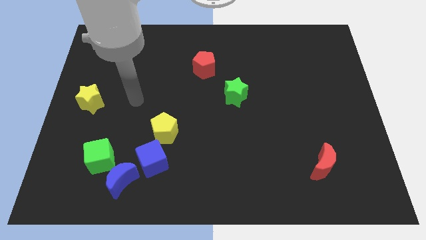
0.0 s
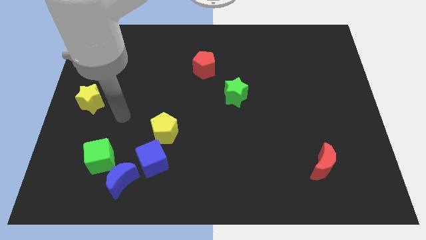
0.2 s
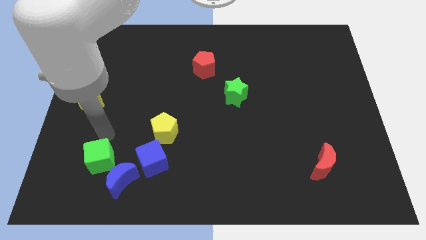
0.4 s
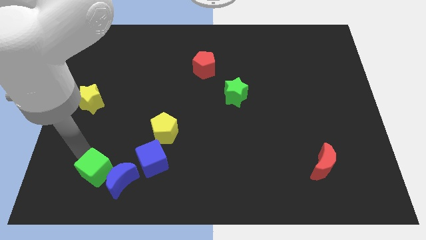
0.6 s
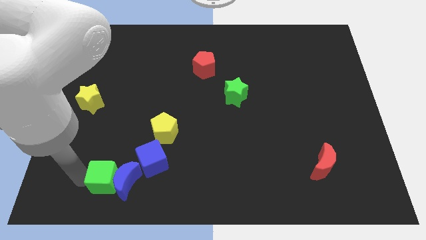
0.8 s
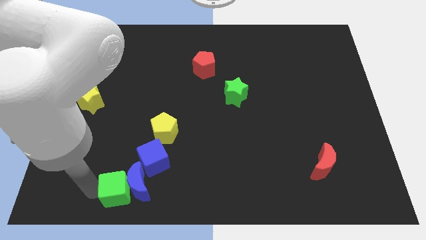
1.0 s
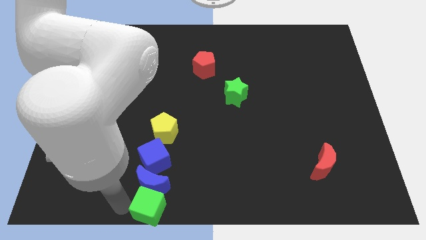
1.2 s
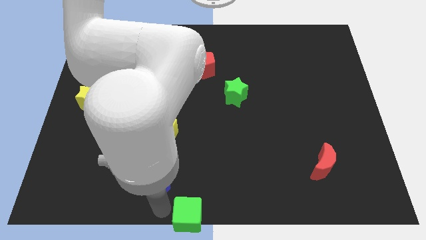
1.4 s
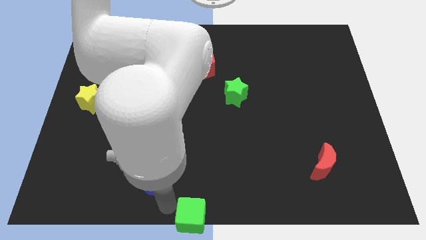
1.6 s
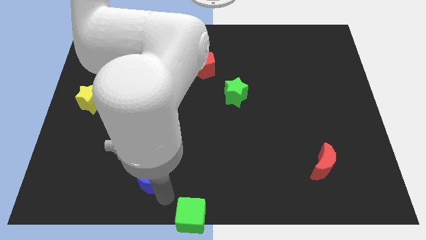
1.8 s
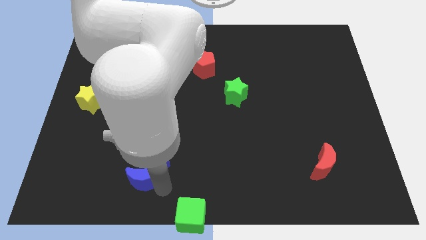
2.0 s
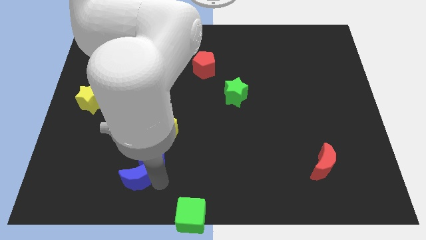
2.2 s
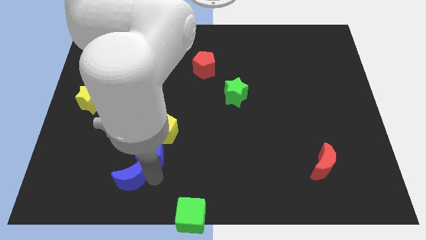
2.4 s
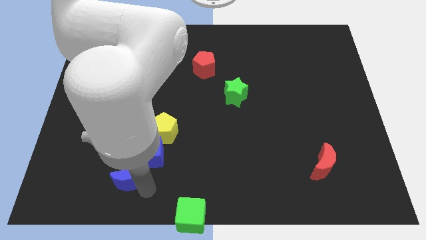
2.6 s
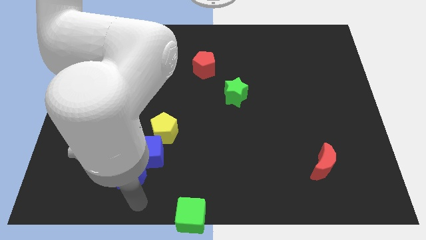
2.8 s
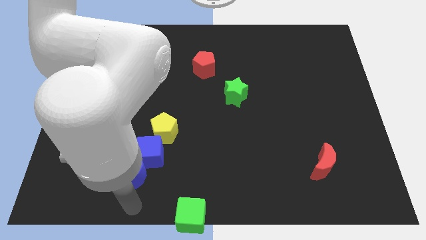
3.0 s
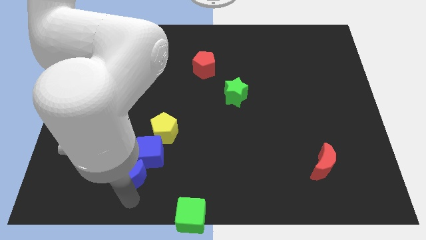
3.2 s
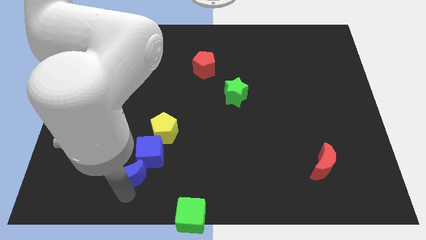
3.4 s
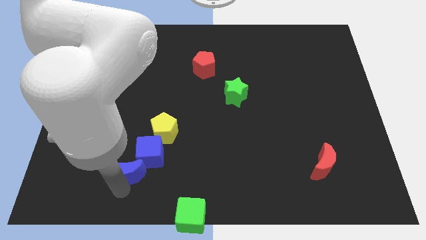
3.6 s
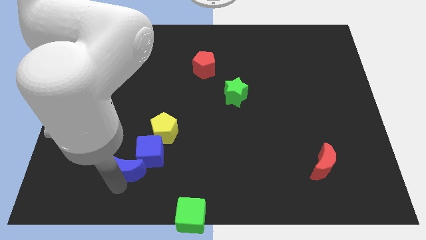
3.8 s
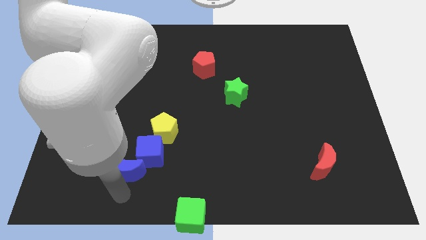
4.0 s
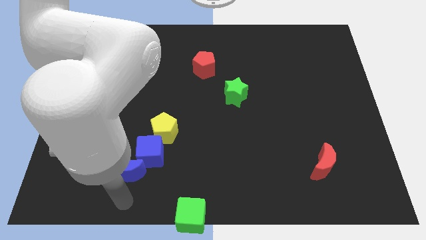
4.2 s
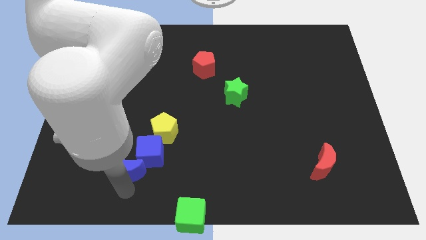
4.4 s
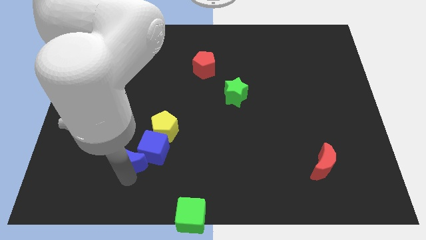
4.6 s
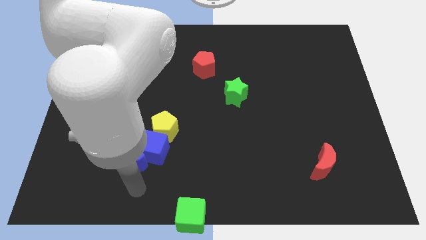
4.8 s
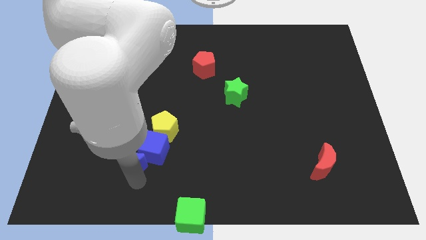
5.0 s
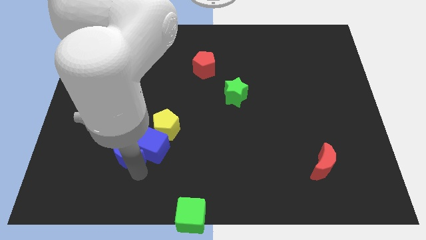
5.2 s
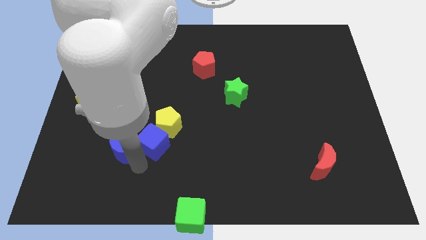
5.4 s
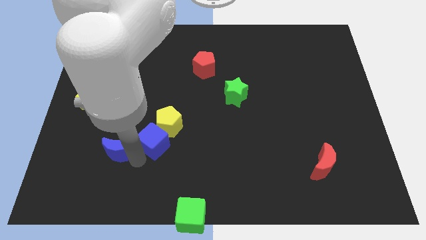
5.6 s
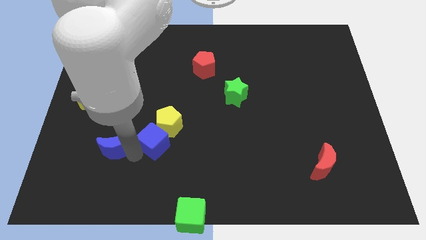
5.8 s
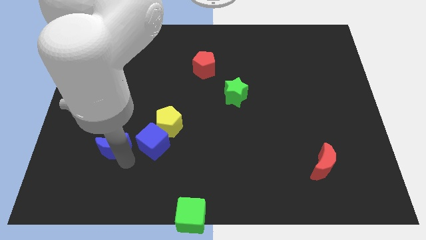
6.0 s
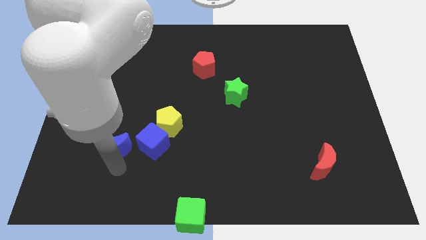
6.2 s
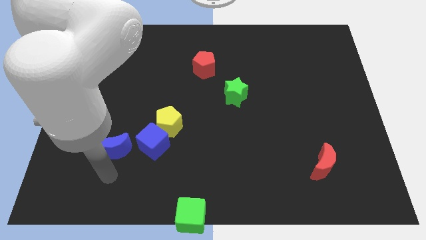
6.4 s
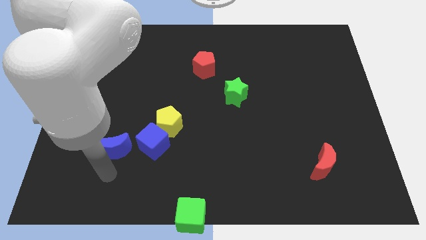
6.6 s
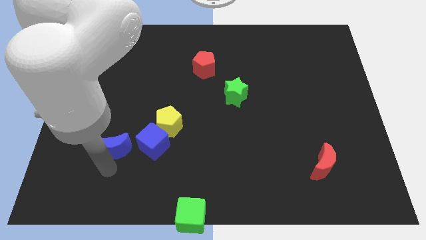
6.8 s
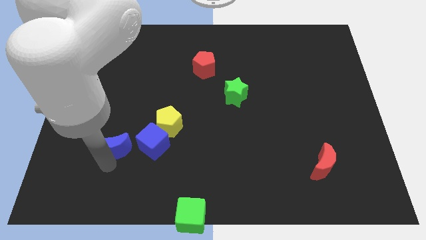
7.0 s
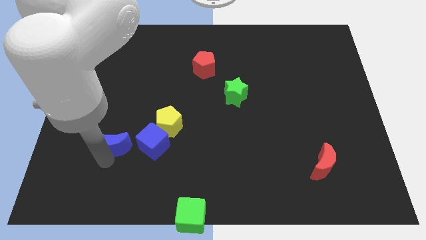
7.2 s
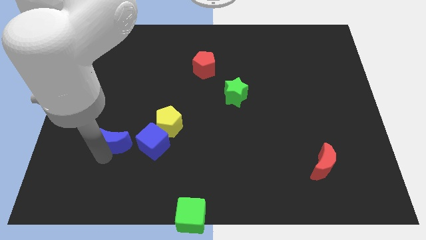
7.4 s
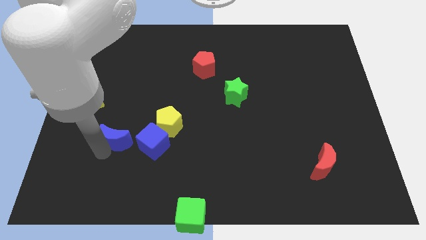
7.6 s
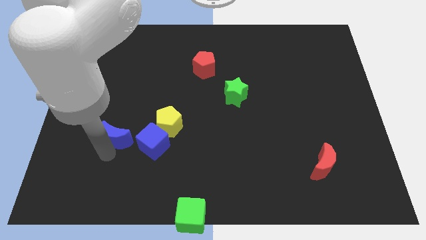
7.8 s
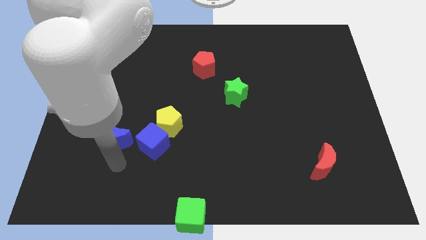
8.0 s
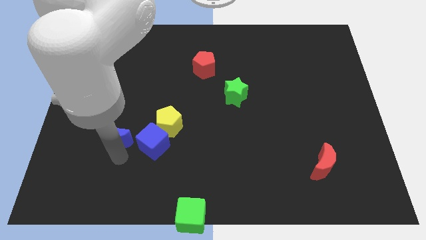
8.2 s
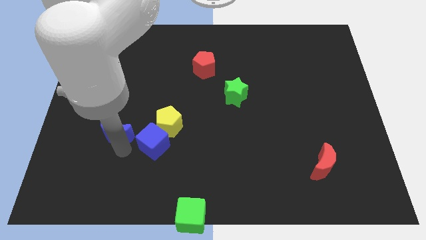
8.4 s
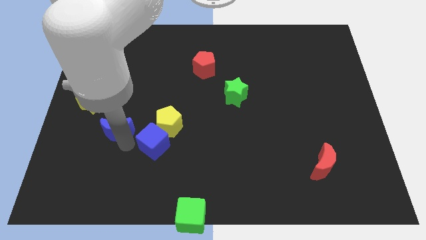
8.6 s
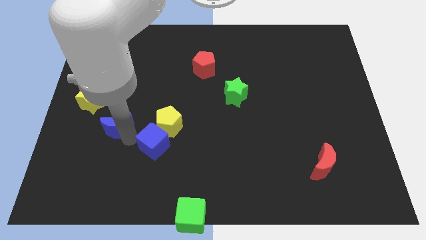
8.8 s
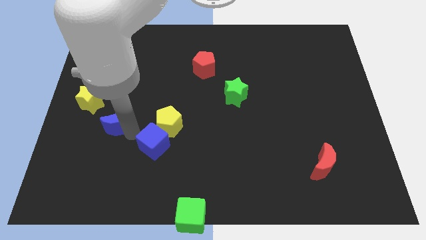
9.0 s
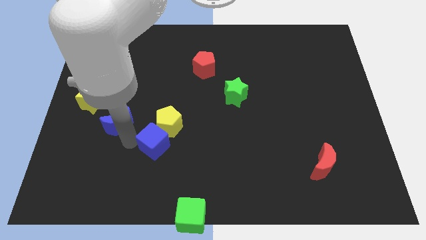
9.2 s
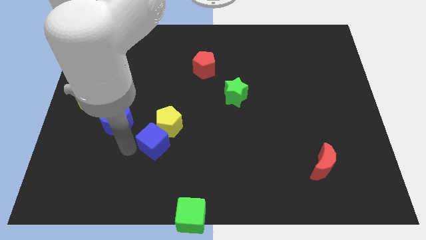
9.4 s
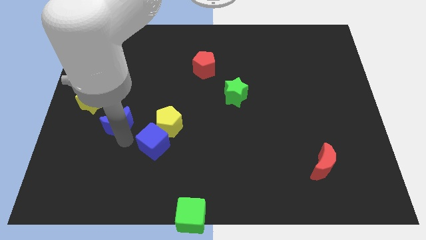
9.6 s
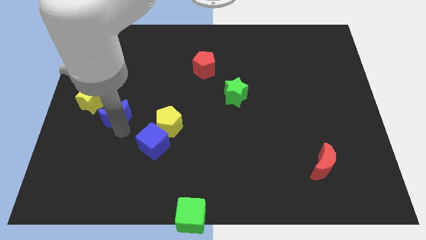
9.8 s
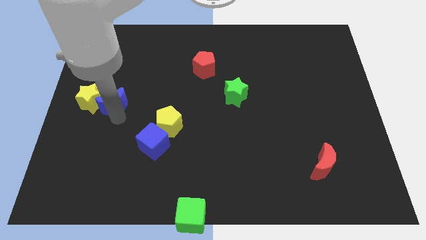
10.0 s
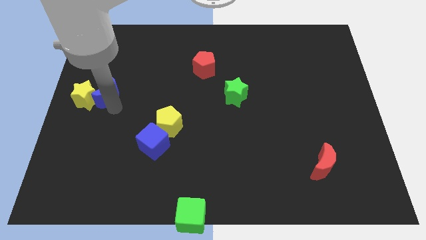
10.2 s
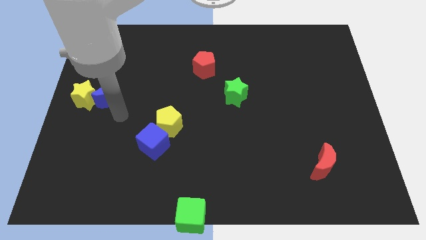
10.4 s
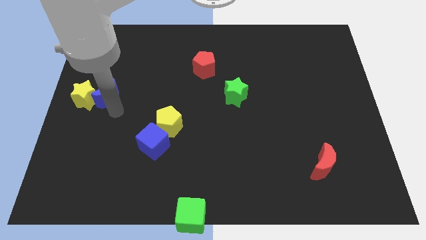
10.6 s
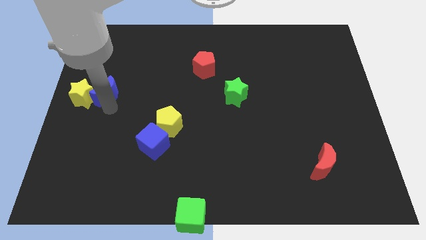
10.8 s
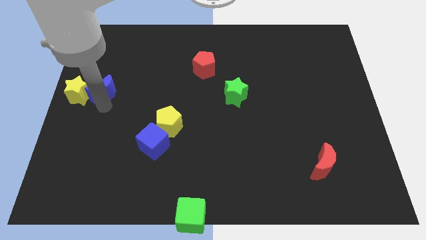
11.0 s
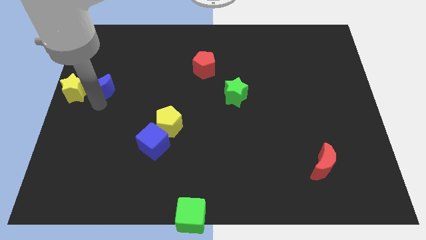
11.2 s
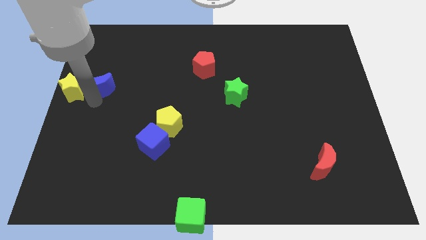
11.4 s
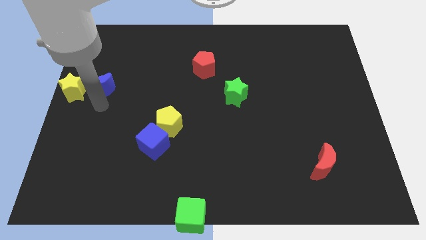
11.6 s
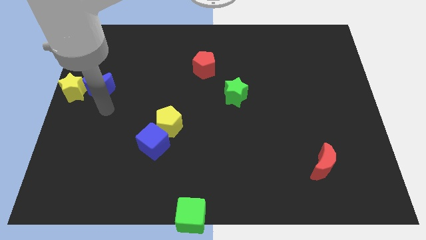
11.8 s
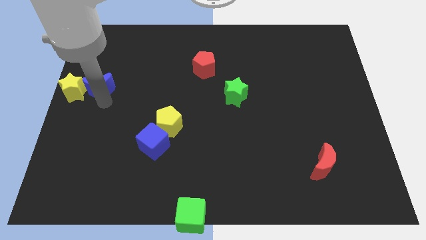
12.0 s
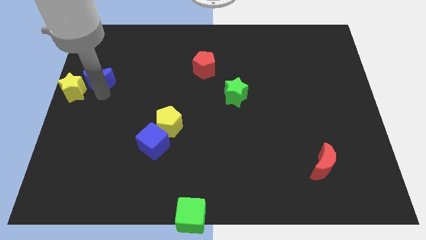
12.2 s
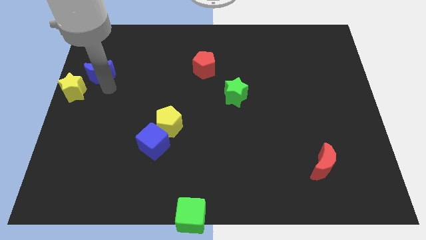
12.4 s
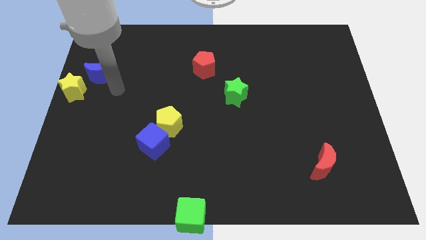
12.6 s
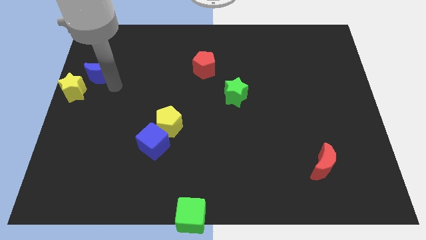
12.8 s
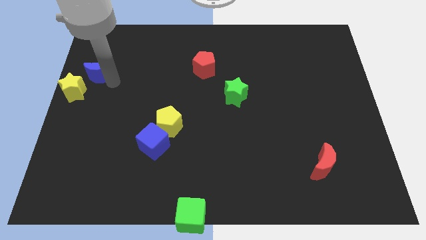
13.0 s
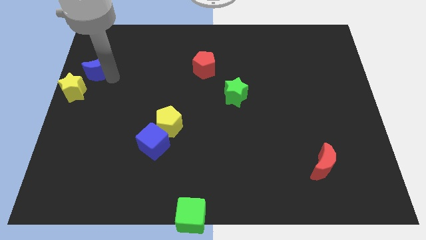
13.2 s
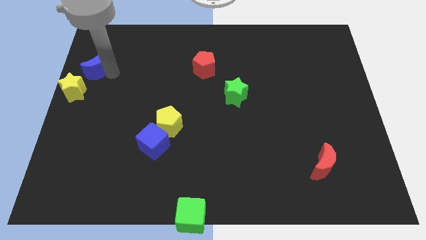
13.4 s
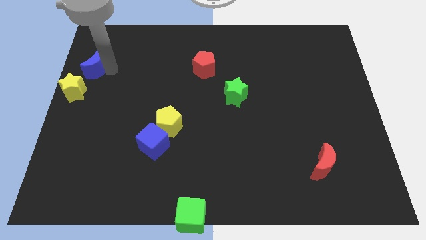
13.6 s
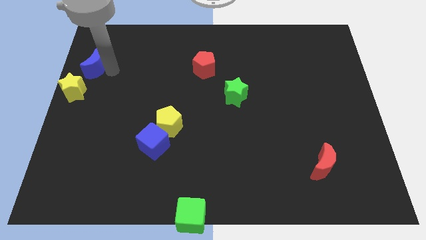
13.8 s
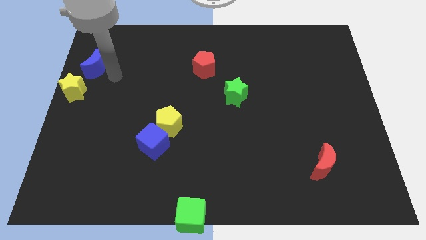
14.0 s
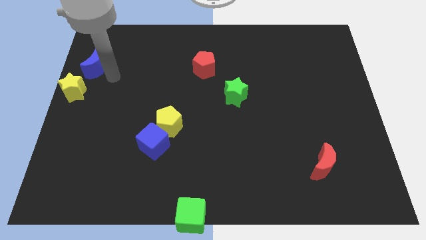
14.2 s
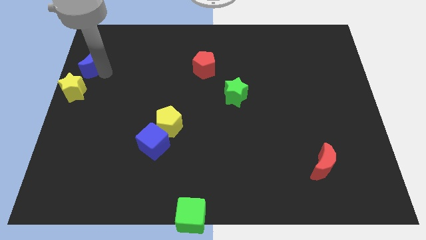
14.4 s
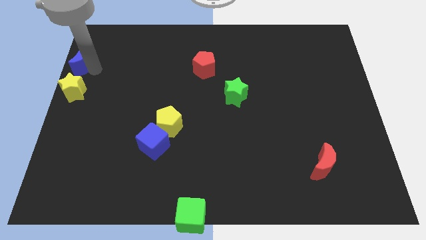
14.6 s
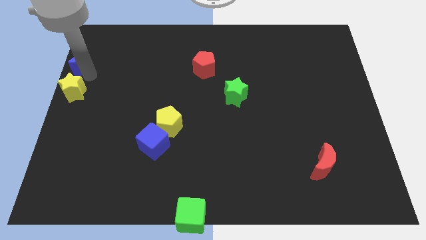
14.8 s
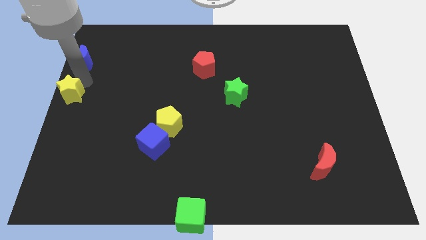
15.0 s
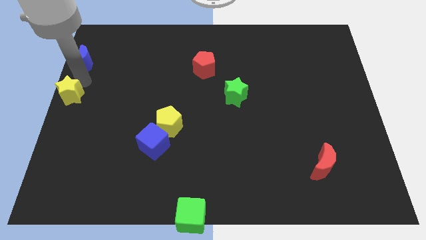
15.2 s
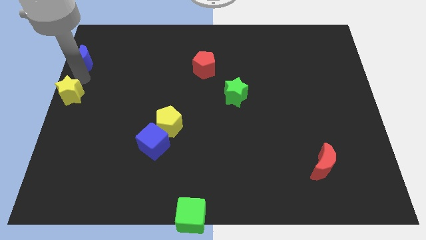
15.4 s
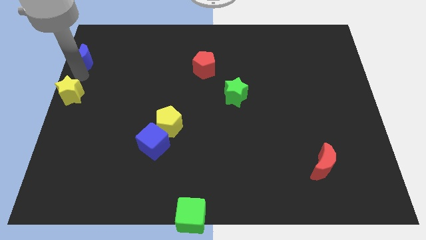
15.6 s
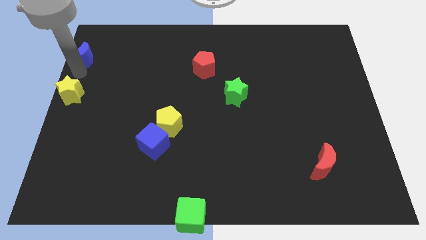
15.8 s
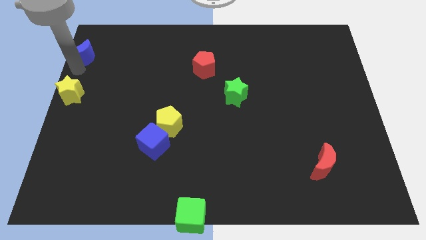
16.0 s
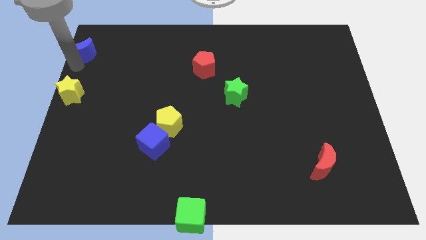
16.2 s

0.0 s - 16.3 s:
slide the blue moon to the top left of the board
